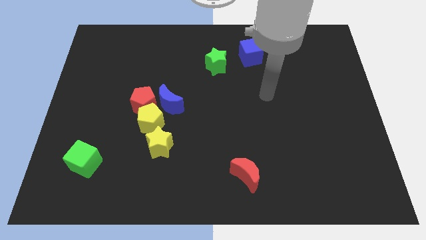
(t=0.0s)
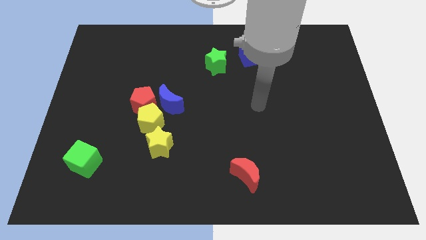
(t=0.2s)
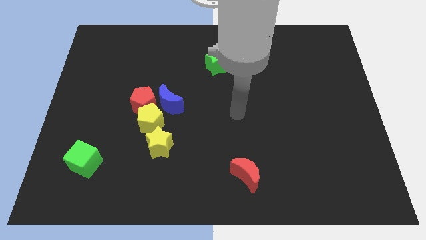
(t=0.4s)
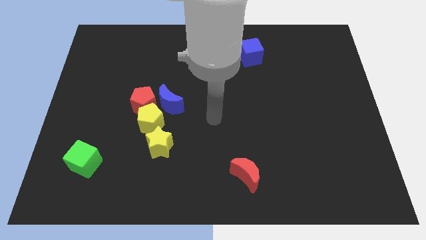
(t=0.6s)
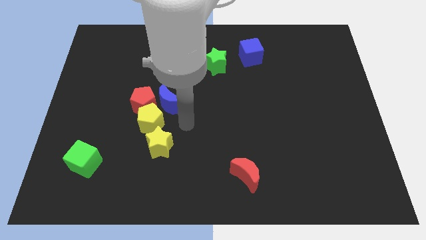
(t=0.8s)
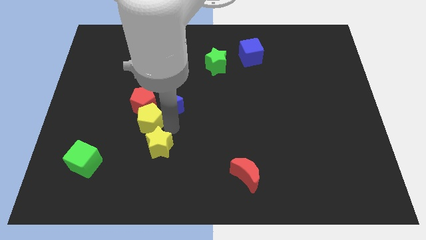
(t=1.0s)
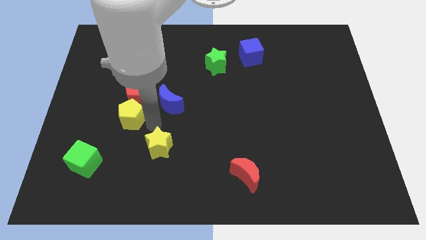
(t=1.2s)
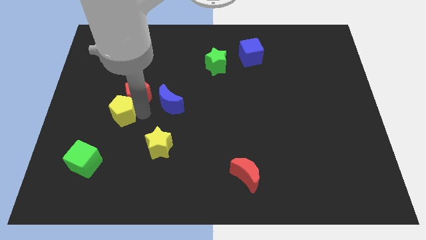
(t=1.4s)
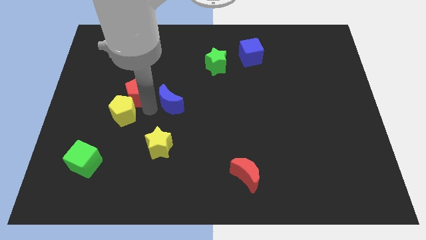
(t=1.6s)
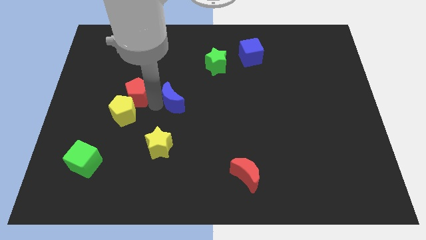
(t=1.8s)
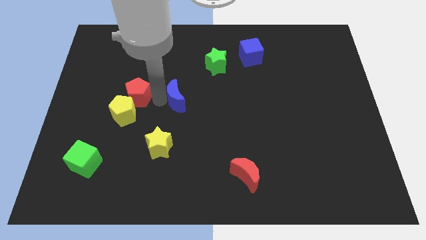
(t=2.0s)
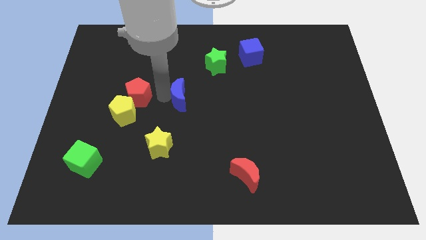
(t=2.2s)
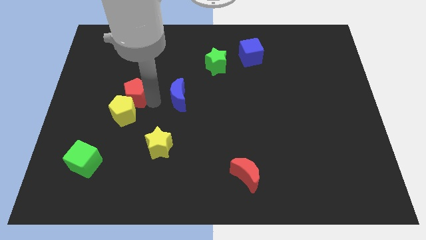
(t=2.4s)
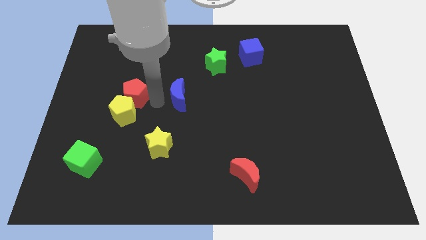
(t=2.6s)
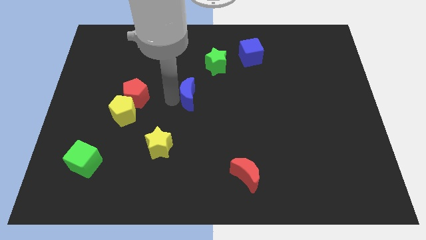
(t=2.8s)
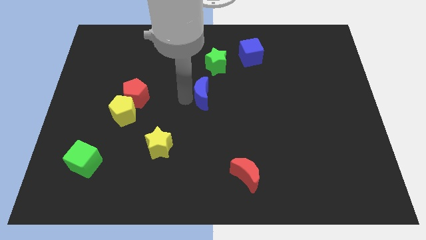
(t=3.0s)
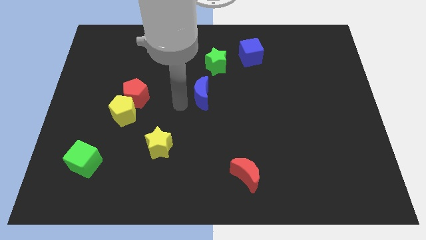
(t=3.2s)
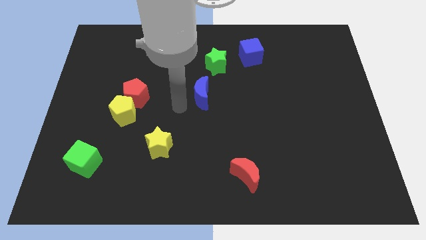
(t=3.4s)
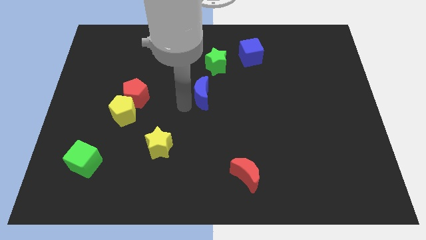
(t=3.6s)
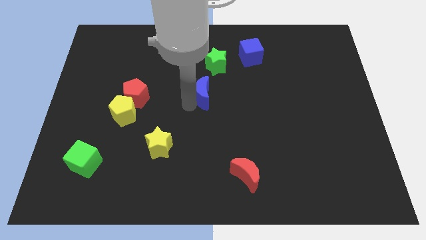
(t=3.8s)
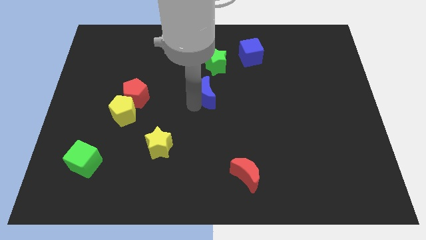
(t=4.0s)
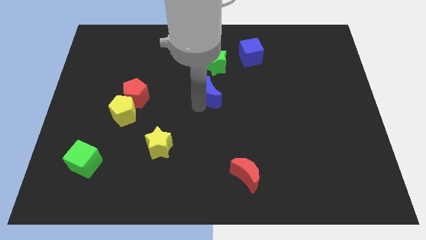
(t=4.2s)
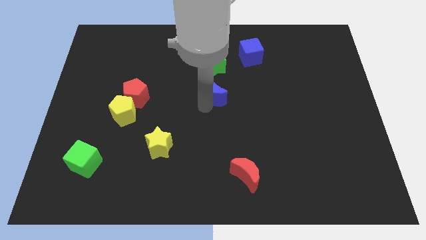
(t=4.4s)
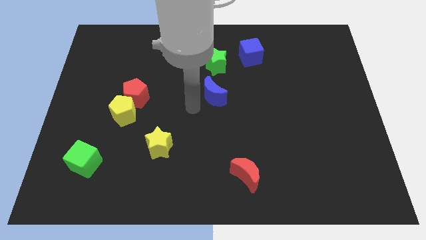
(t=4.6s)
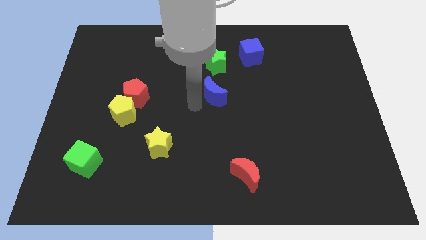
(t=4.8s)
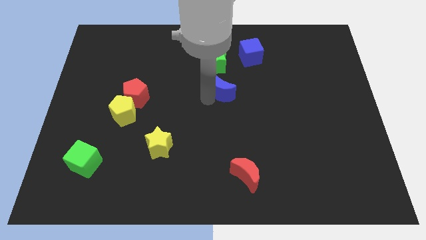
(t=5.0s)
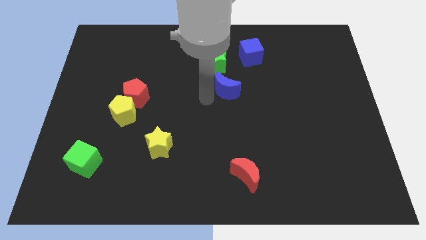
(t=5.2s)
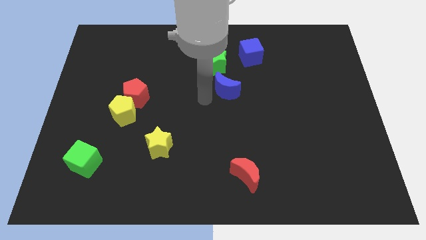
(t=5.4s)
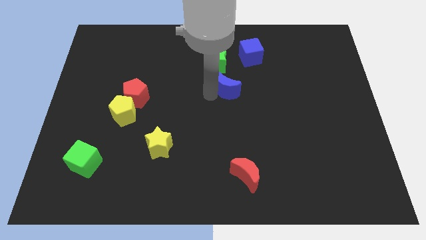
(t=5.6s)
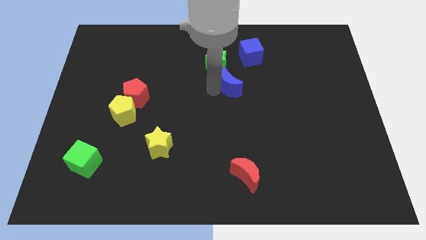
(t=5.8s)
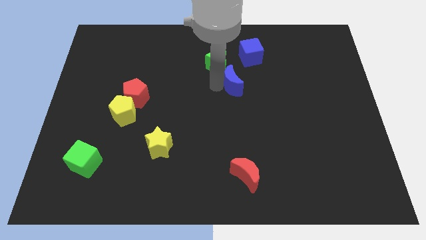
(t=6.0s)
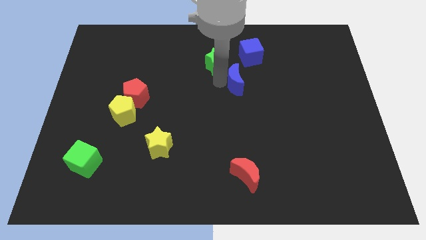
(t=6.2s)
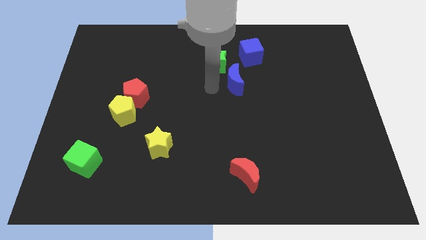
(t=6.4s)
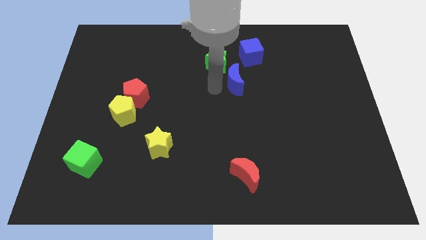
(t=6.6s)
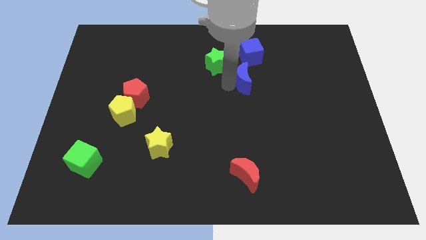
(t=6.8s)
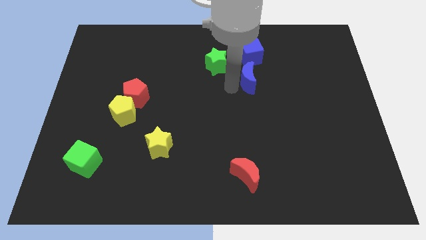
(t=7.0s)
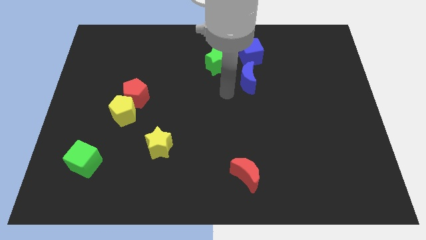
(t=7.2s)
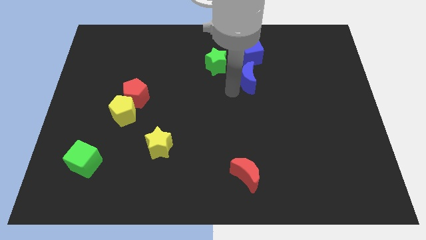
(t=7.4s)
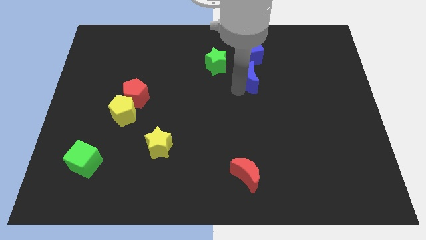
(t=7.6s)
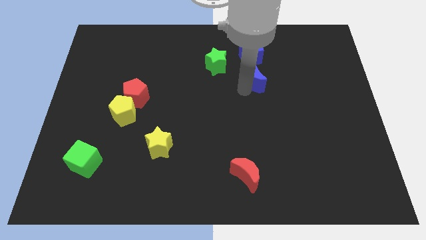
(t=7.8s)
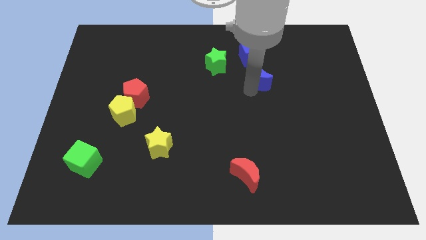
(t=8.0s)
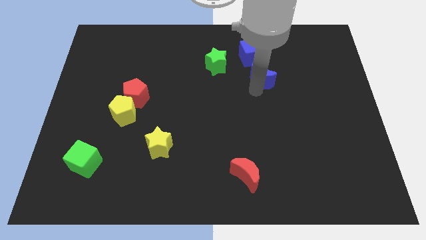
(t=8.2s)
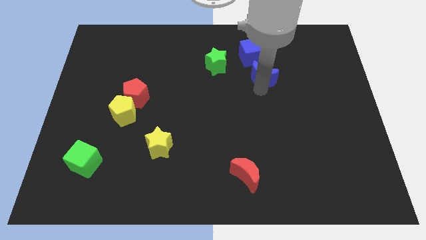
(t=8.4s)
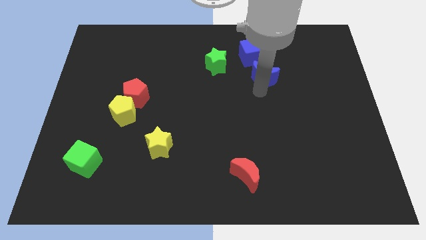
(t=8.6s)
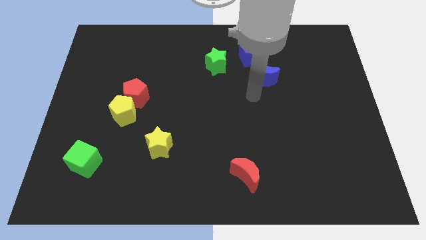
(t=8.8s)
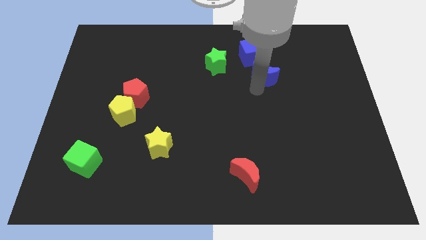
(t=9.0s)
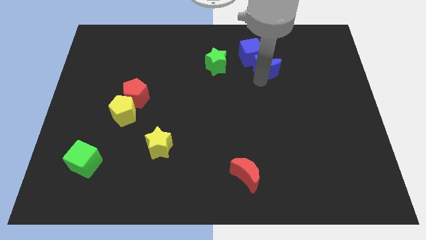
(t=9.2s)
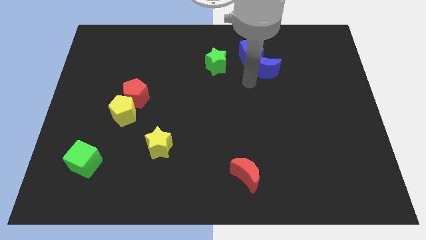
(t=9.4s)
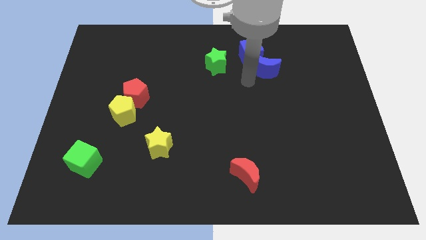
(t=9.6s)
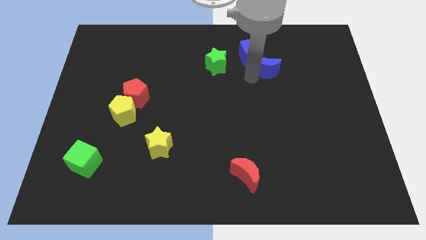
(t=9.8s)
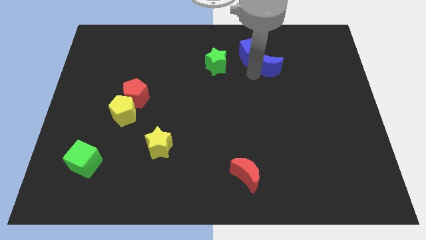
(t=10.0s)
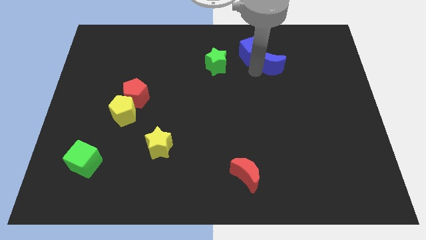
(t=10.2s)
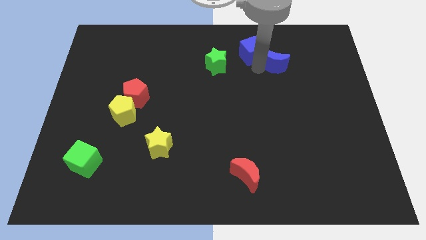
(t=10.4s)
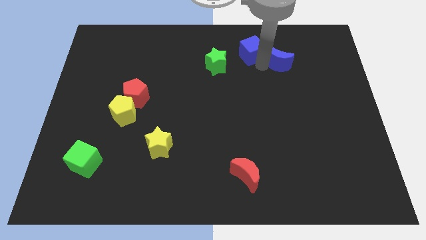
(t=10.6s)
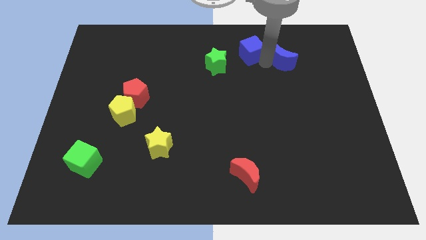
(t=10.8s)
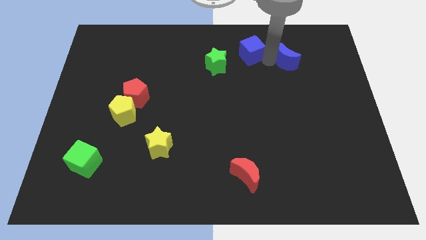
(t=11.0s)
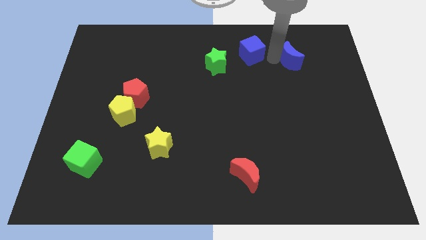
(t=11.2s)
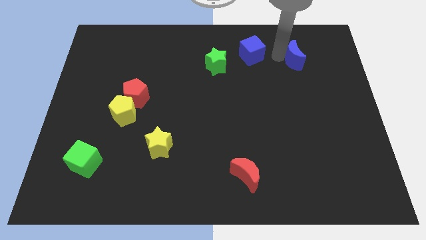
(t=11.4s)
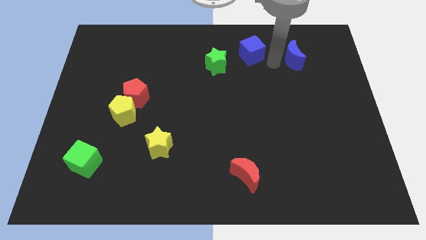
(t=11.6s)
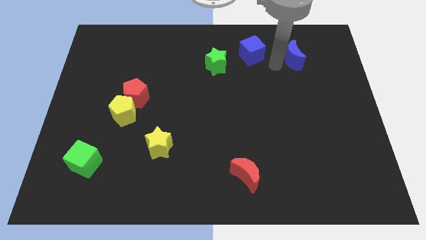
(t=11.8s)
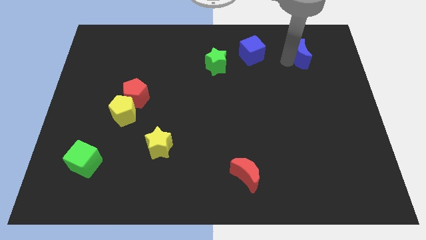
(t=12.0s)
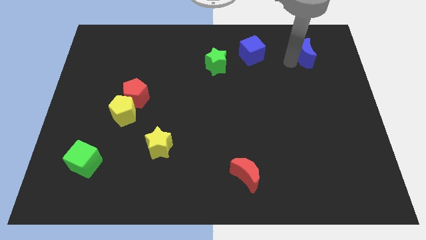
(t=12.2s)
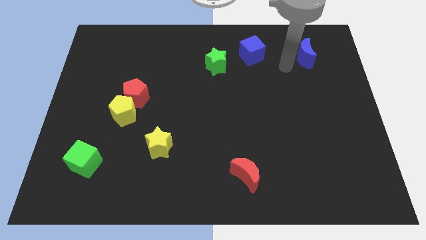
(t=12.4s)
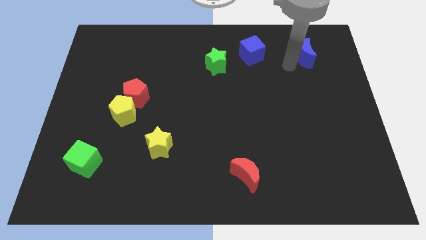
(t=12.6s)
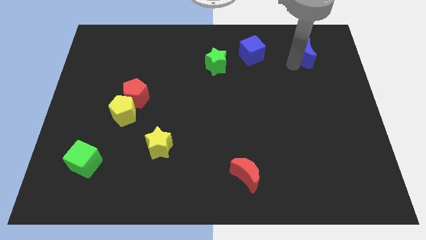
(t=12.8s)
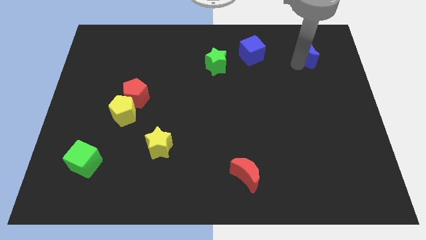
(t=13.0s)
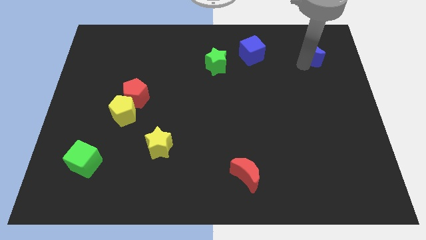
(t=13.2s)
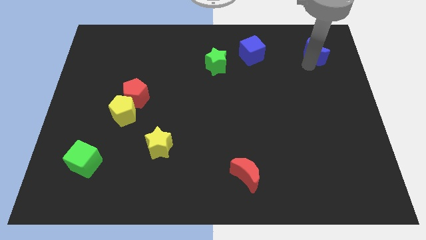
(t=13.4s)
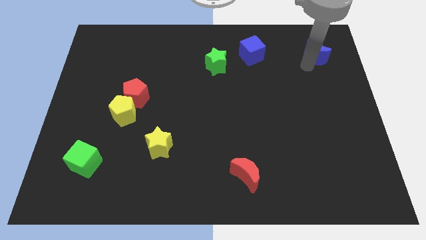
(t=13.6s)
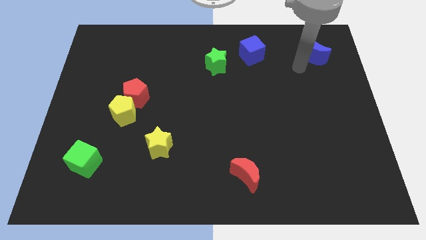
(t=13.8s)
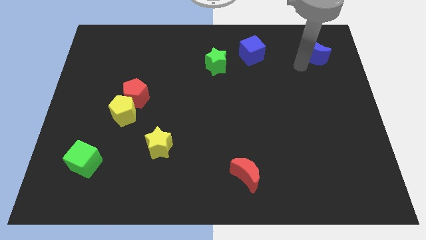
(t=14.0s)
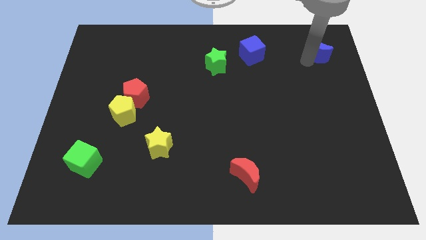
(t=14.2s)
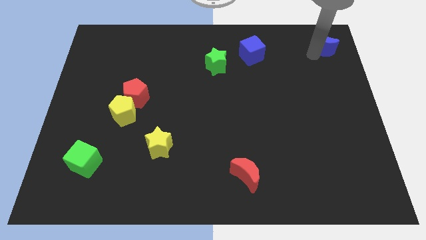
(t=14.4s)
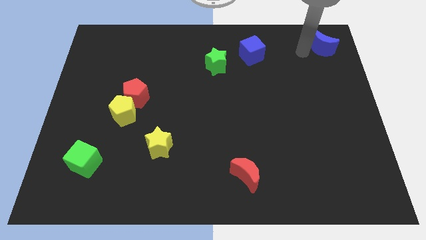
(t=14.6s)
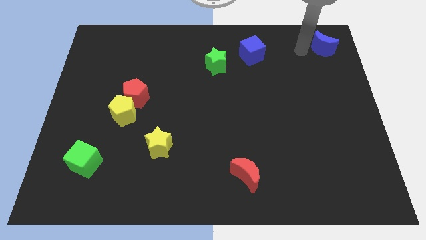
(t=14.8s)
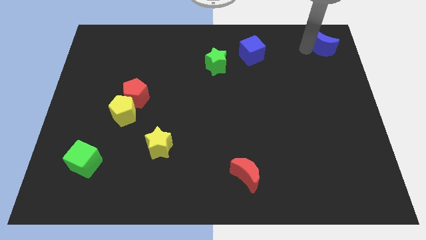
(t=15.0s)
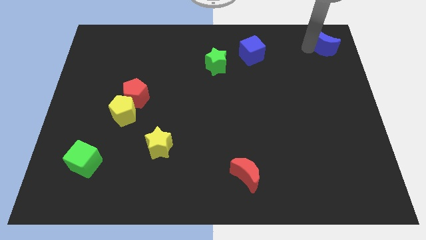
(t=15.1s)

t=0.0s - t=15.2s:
put the blue moon to the top right
